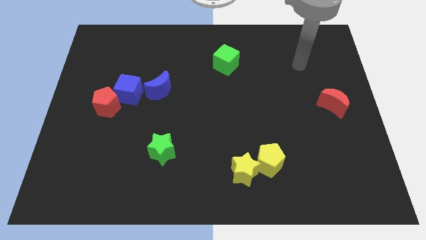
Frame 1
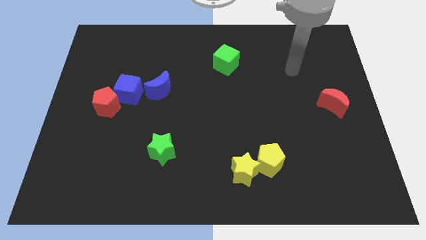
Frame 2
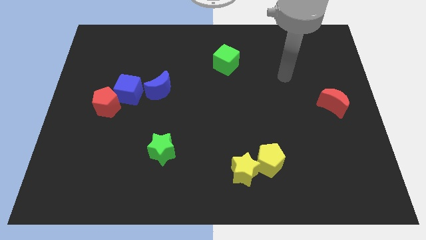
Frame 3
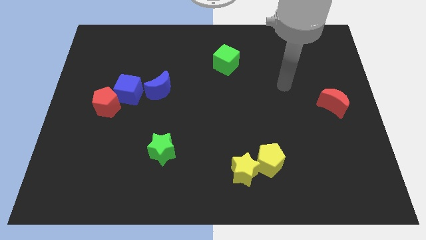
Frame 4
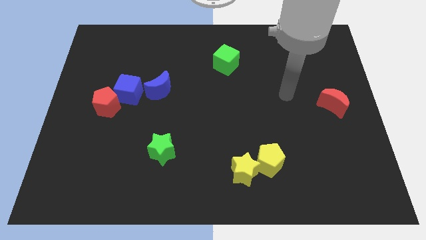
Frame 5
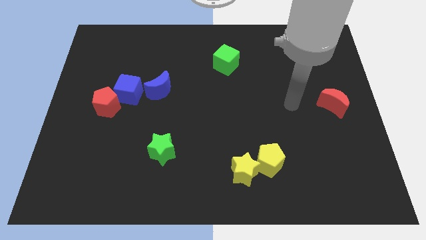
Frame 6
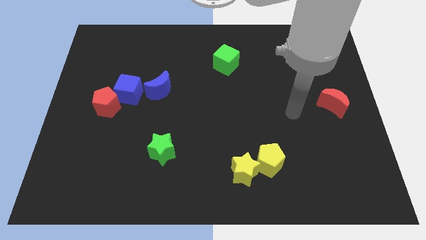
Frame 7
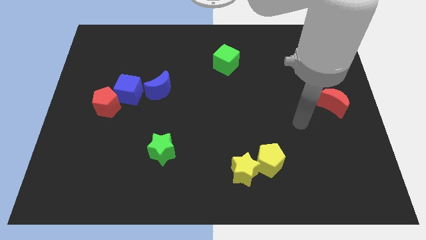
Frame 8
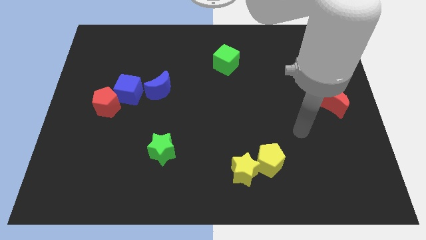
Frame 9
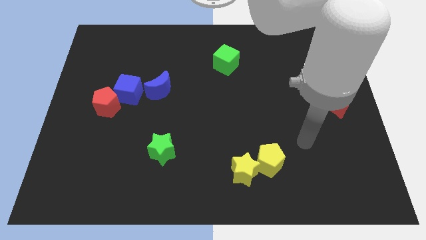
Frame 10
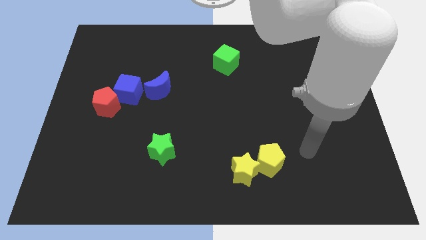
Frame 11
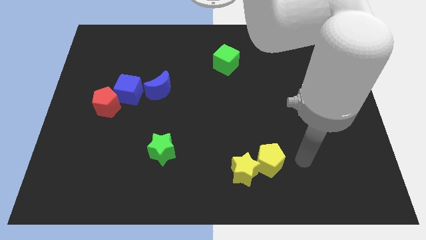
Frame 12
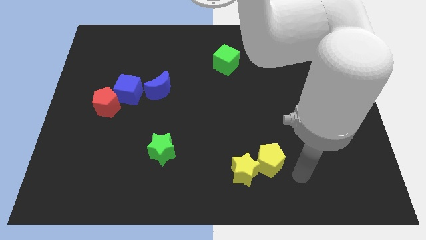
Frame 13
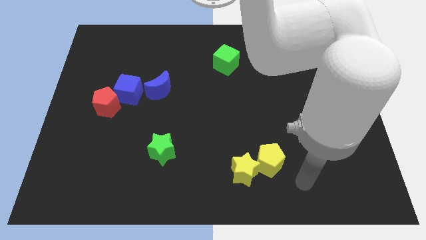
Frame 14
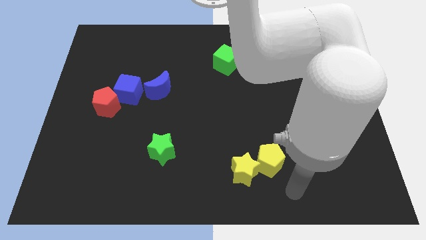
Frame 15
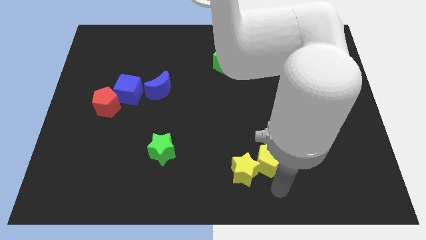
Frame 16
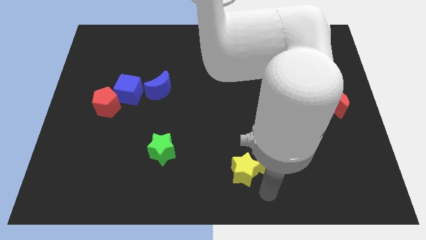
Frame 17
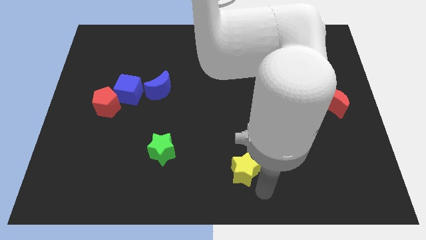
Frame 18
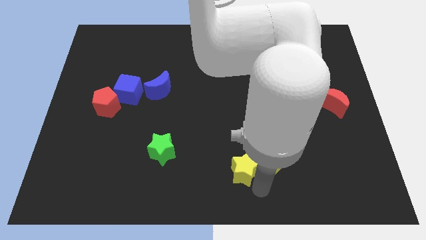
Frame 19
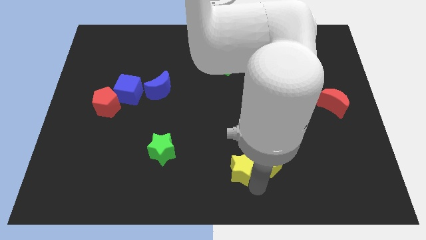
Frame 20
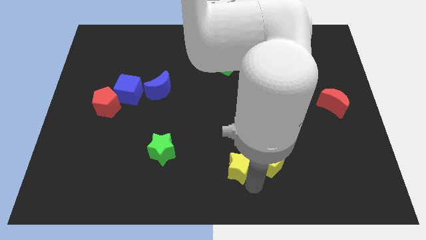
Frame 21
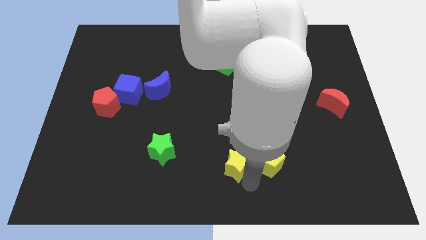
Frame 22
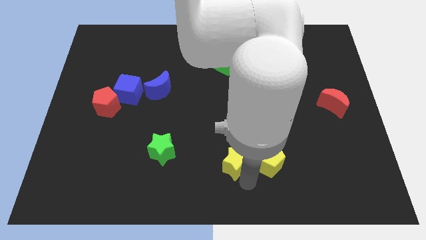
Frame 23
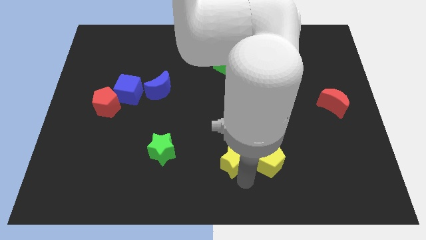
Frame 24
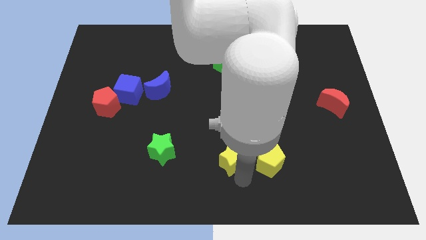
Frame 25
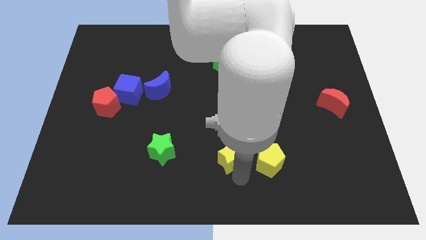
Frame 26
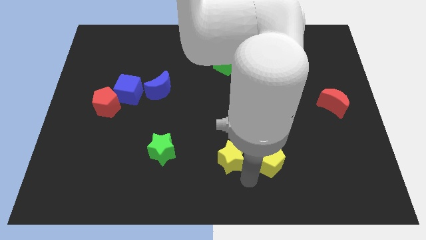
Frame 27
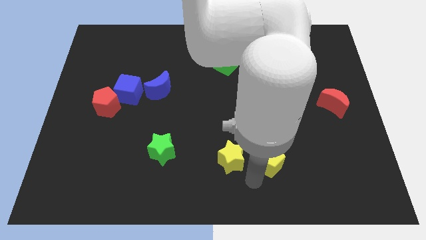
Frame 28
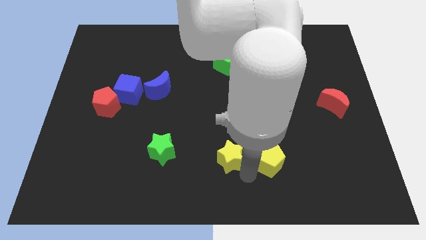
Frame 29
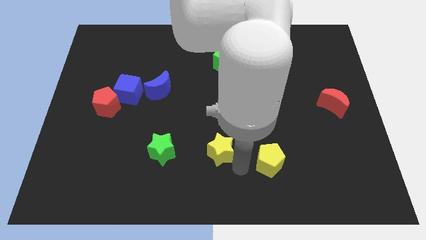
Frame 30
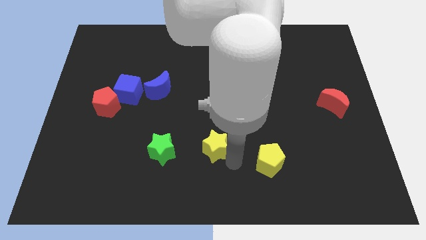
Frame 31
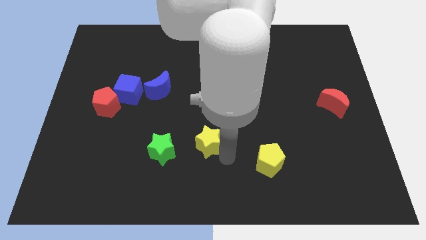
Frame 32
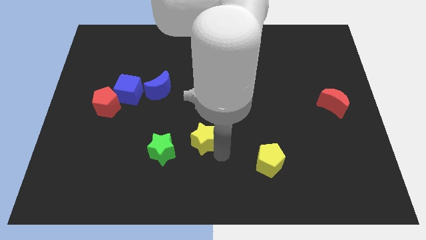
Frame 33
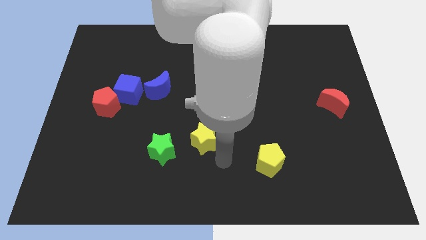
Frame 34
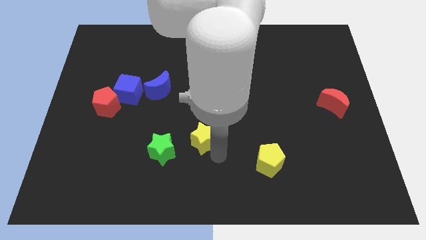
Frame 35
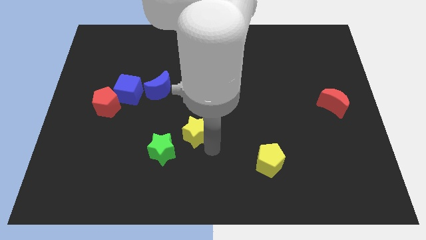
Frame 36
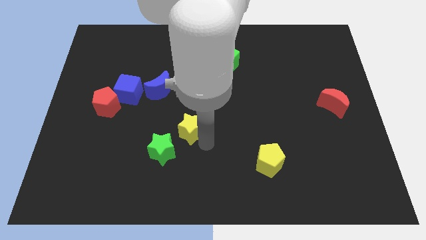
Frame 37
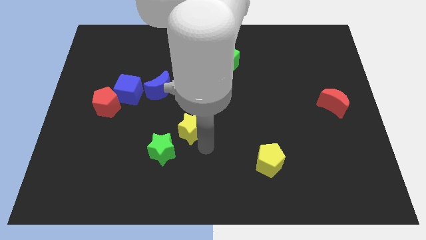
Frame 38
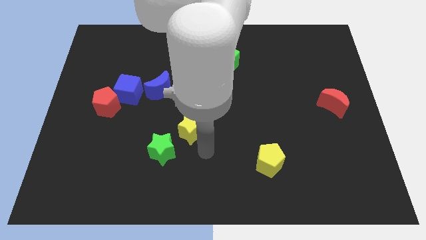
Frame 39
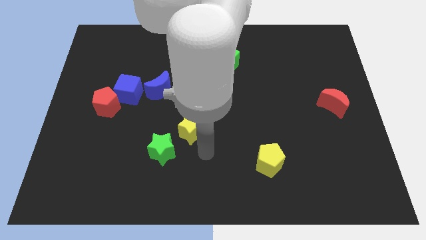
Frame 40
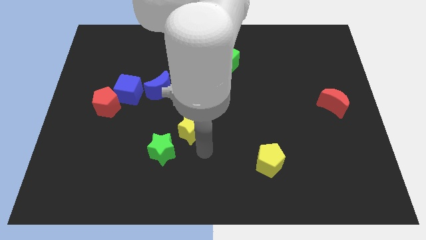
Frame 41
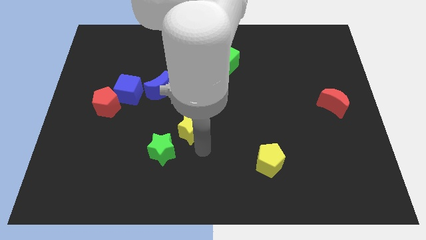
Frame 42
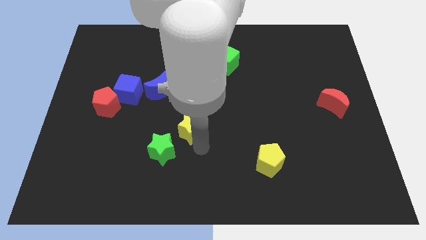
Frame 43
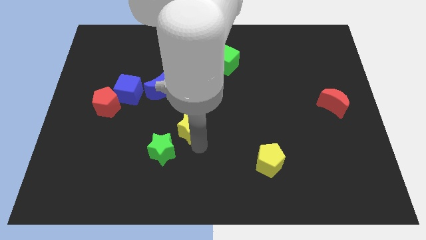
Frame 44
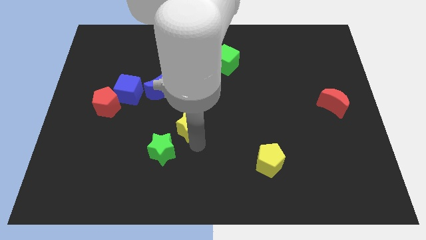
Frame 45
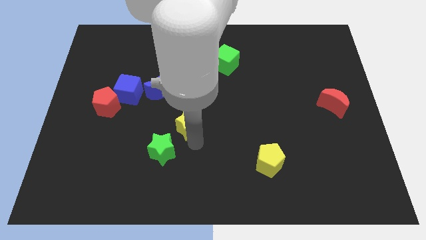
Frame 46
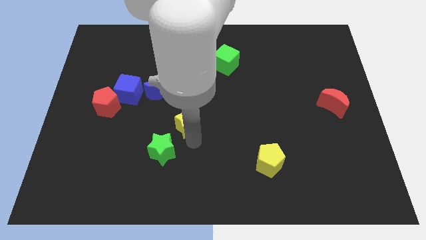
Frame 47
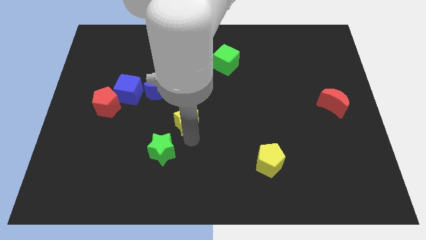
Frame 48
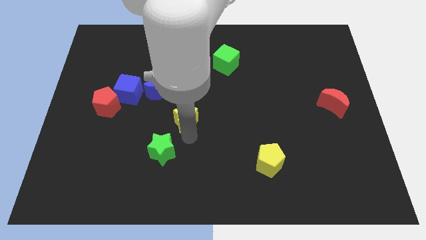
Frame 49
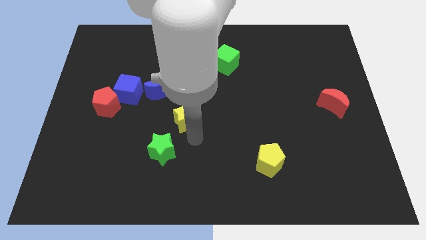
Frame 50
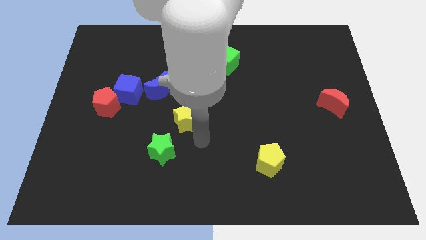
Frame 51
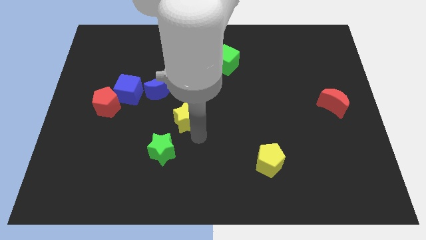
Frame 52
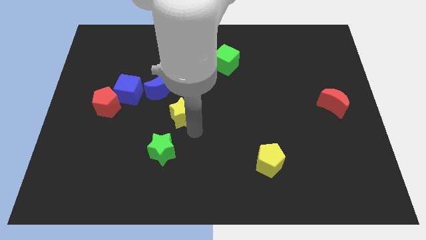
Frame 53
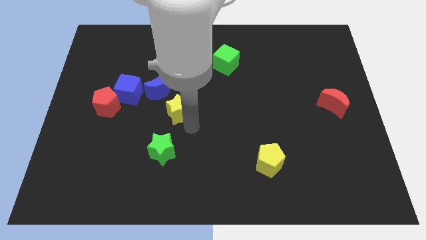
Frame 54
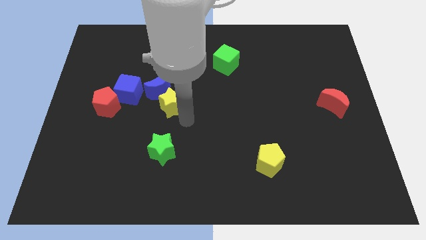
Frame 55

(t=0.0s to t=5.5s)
push the yellow star to the blue moon
